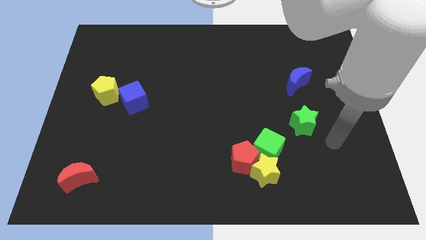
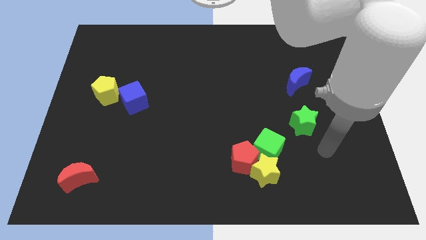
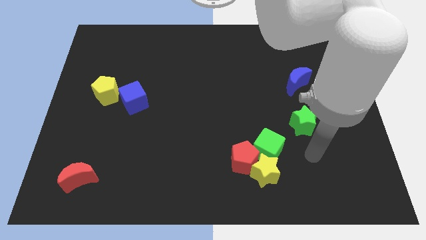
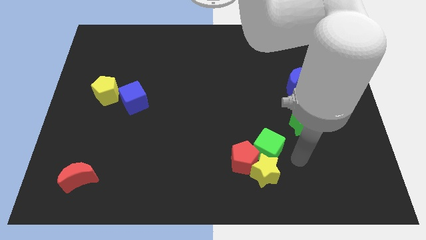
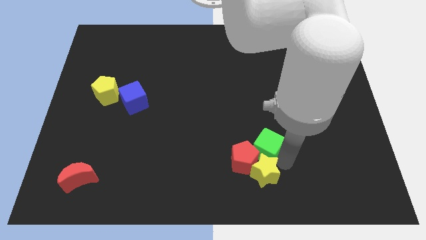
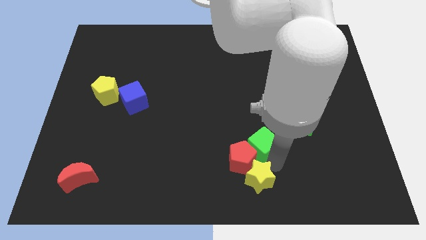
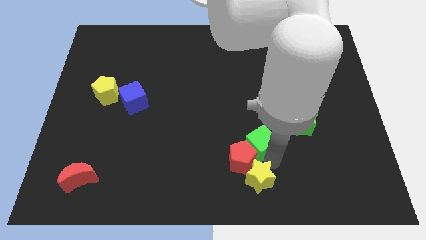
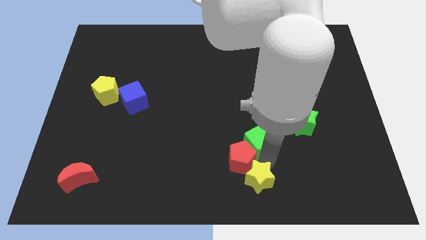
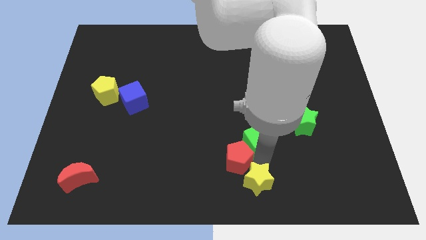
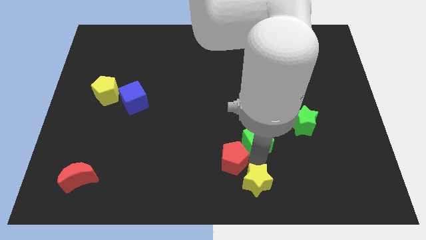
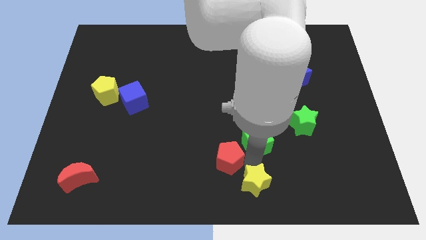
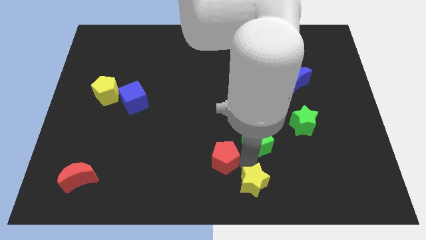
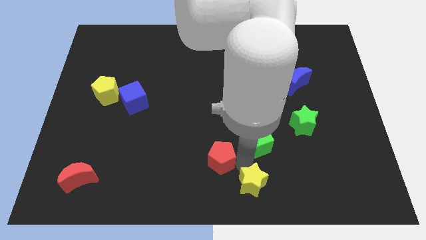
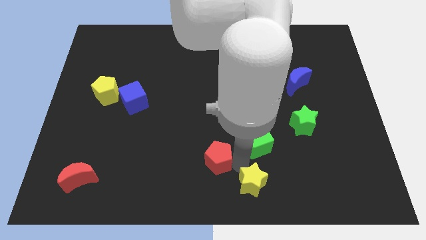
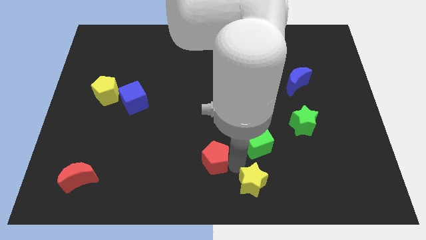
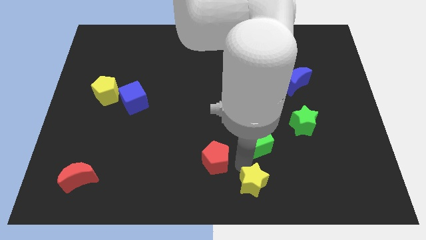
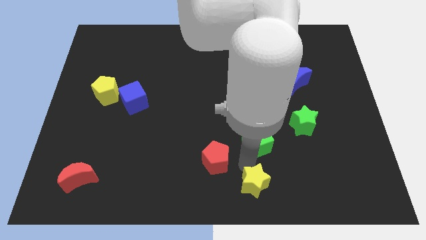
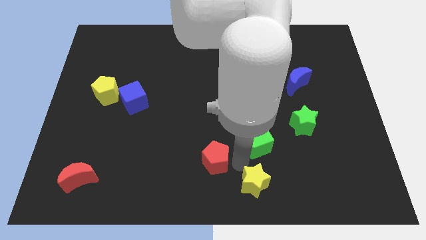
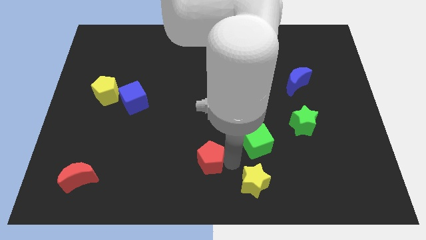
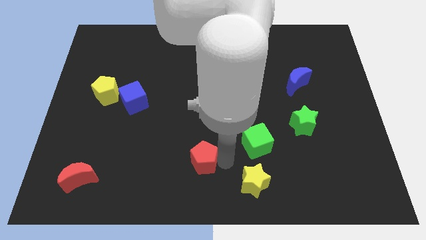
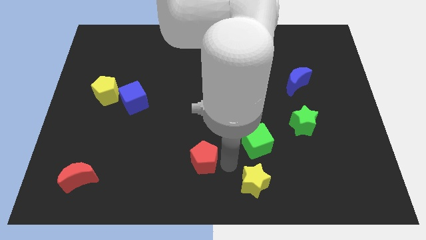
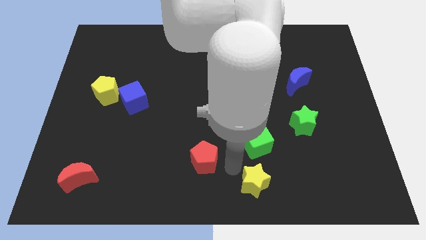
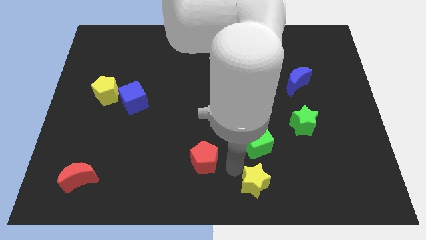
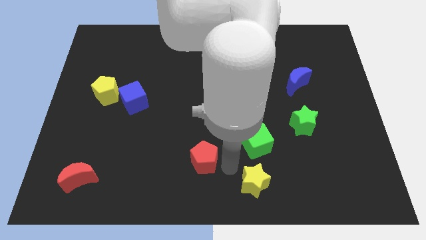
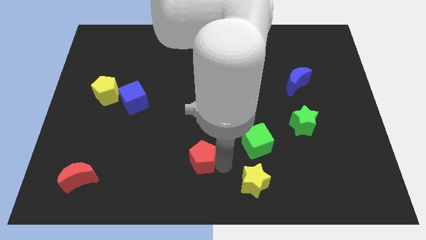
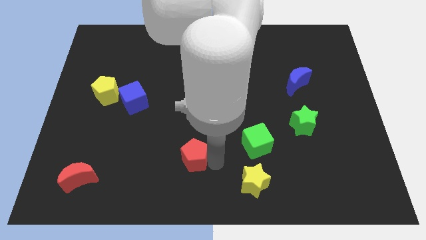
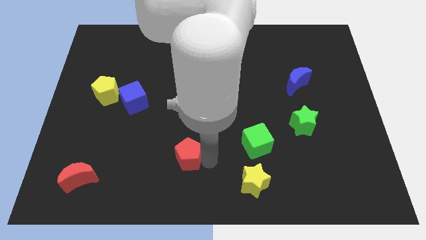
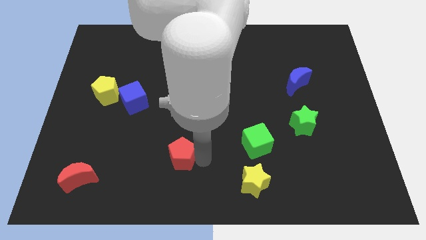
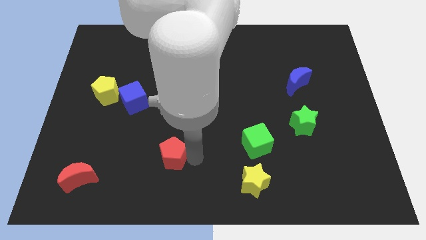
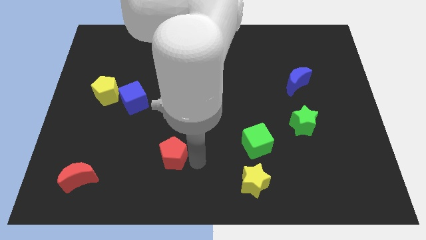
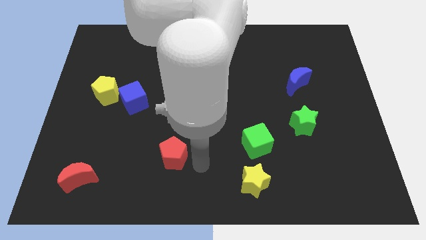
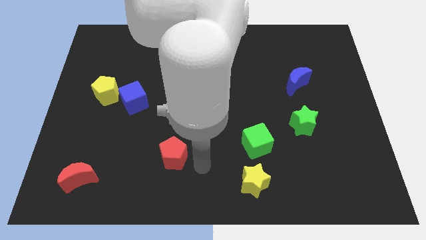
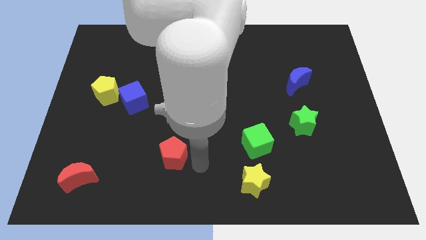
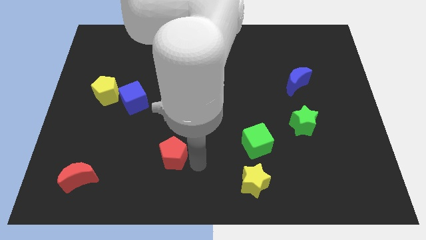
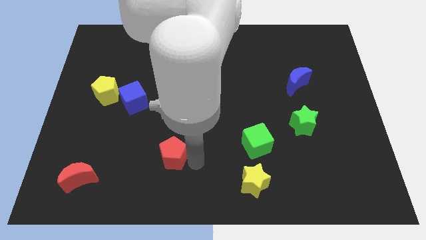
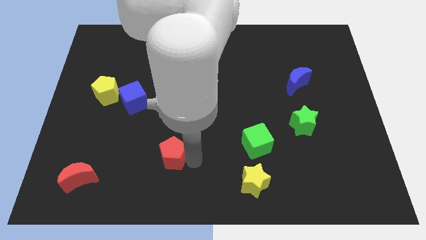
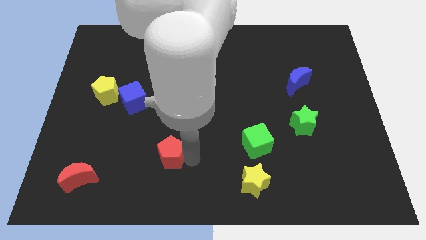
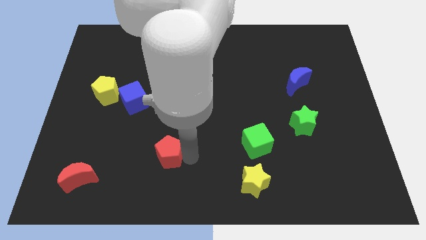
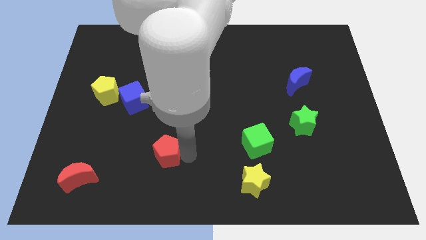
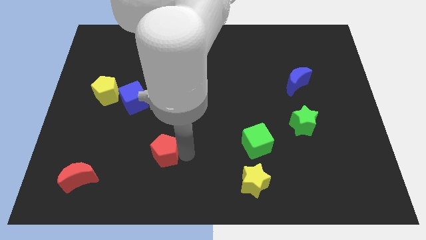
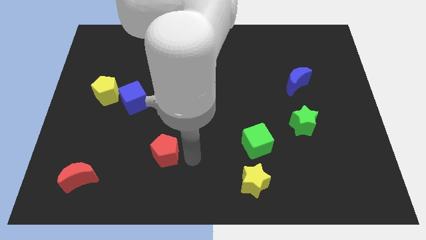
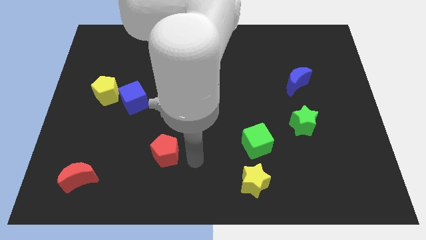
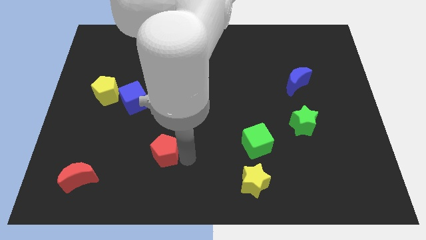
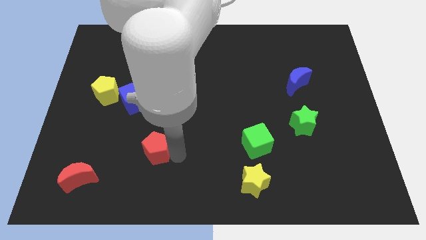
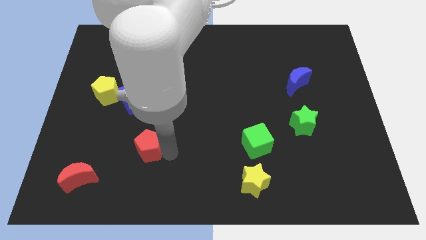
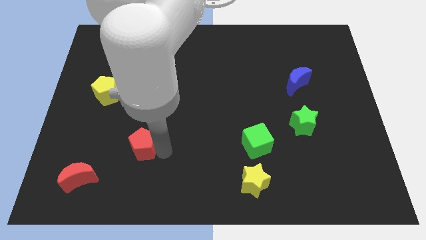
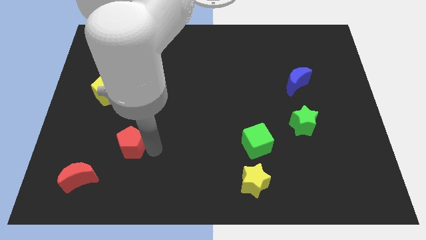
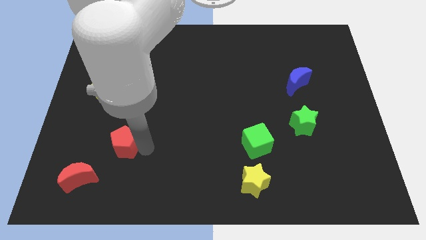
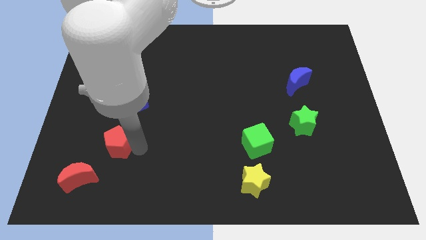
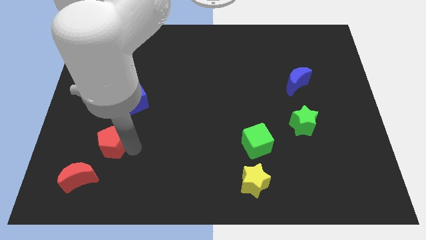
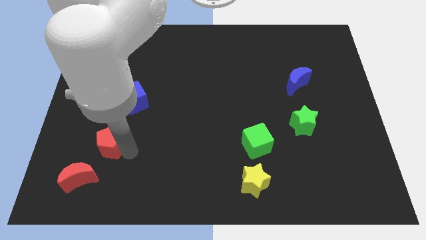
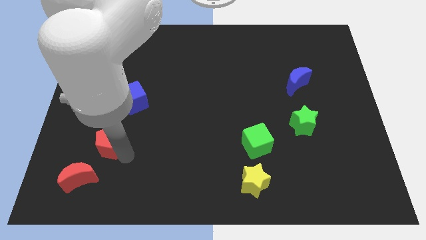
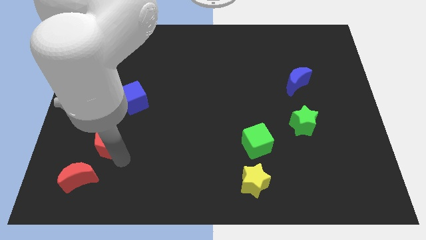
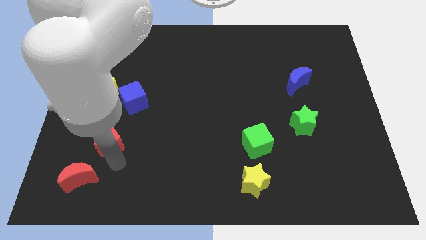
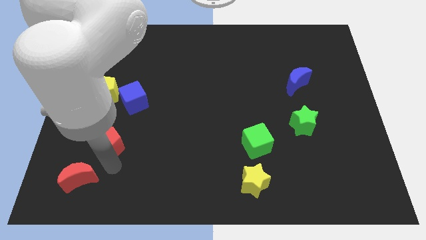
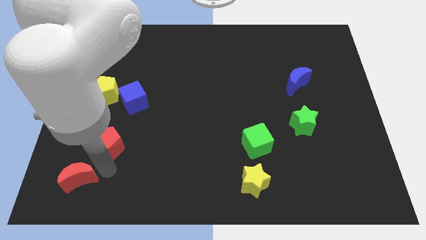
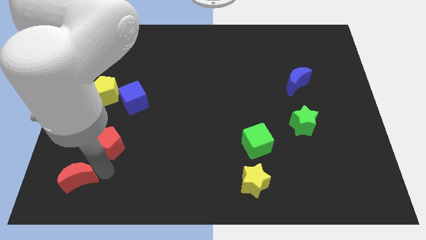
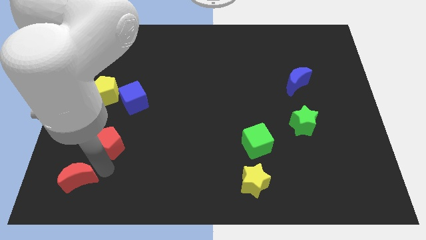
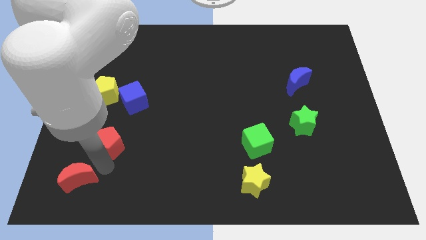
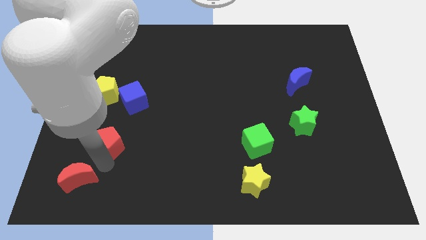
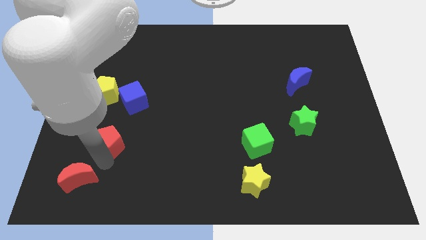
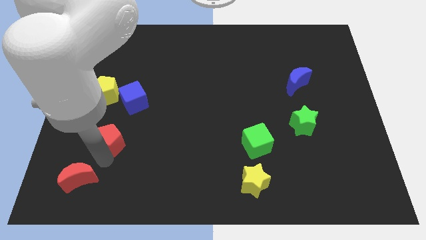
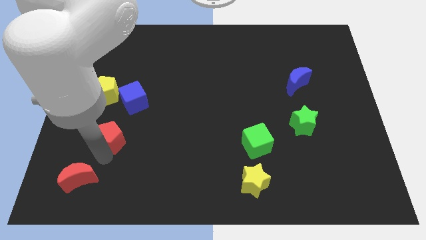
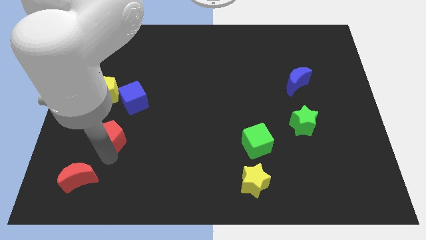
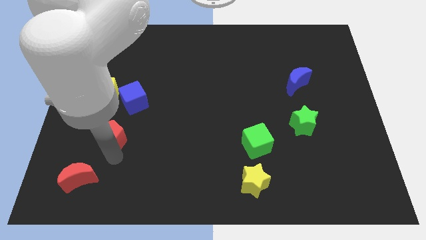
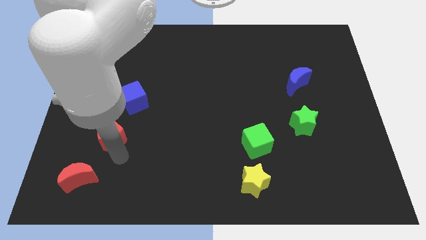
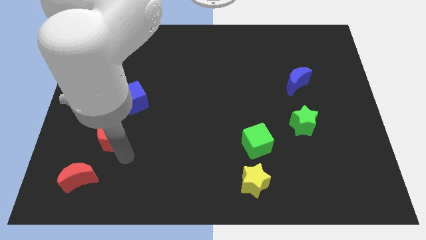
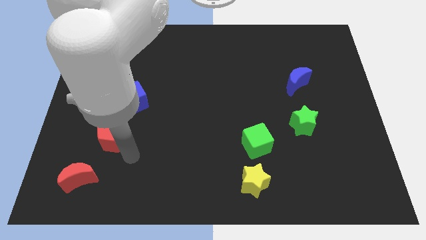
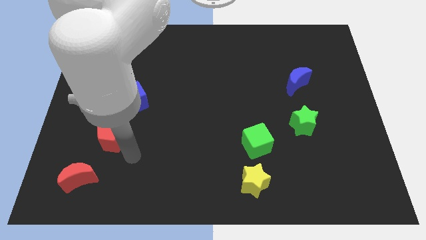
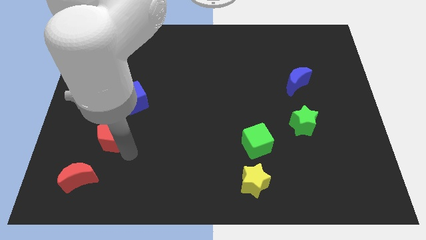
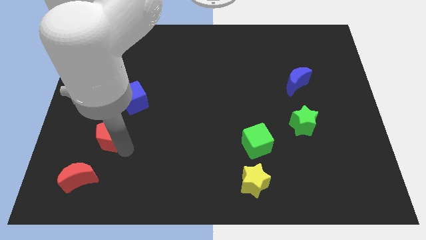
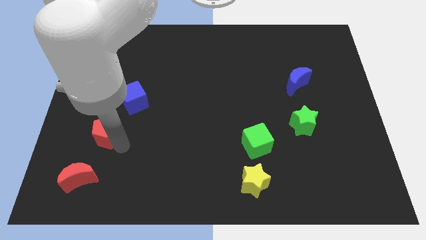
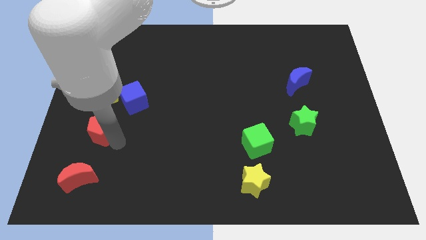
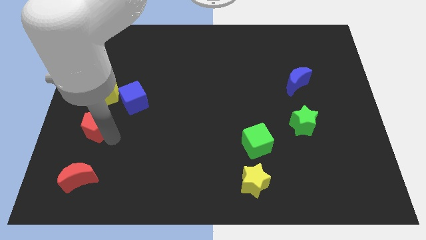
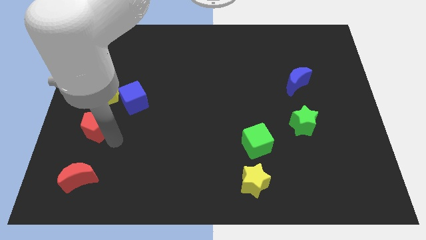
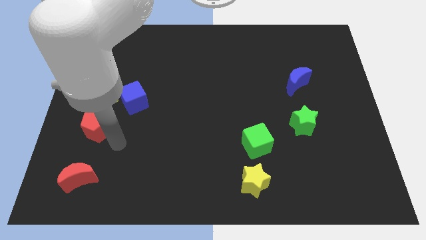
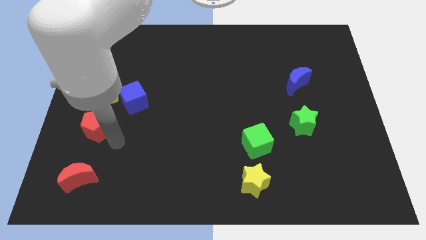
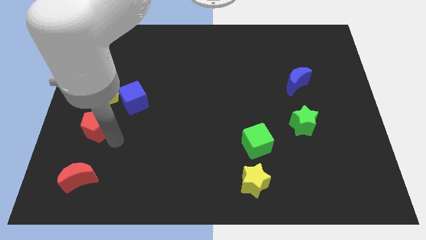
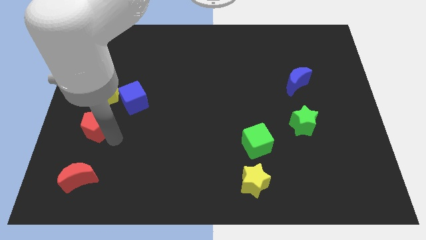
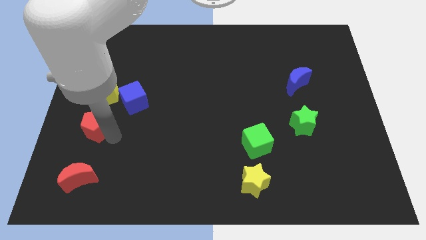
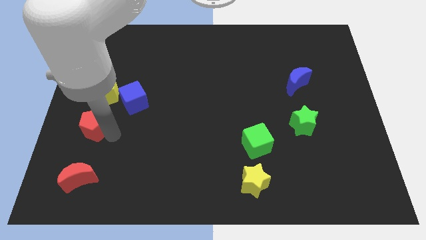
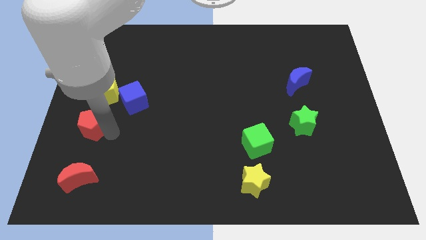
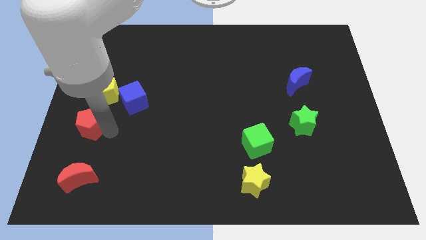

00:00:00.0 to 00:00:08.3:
slide the red pentagon to the center left
